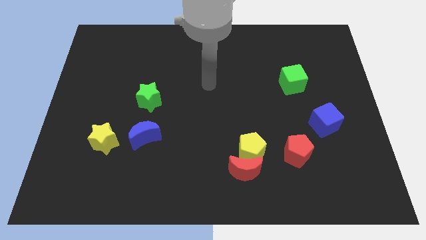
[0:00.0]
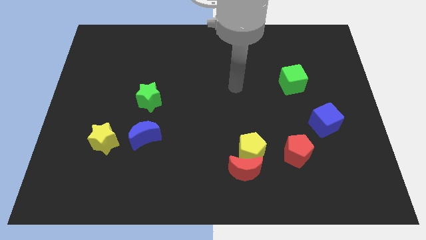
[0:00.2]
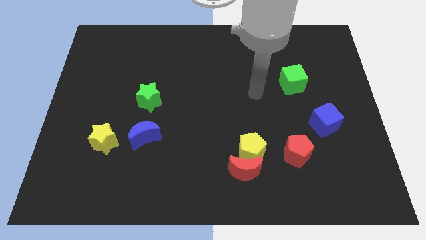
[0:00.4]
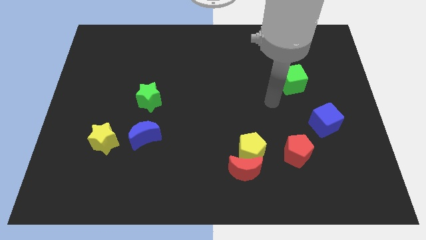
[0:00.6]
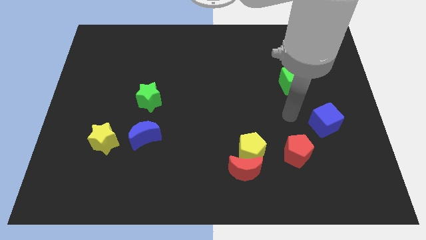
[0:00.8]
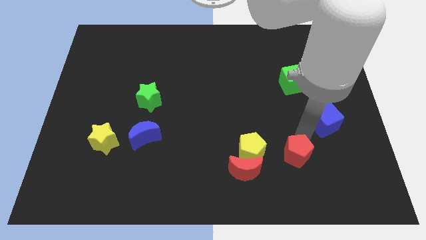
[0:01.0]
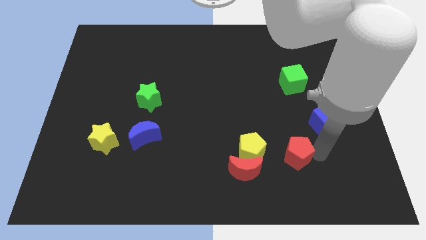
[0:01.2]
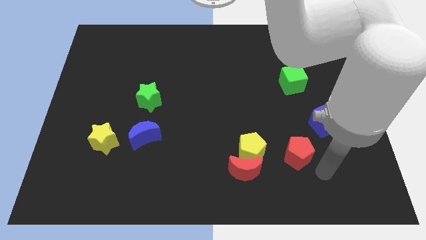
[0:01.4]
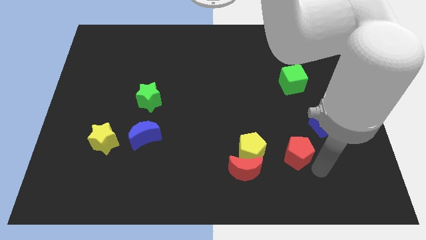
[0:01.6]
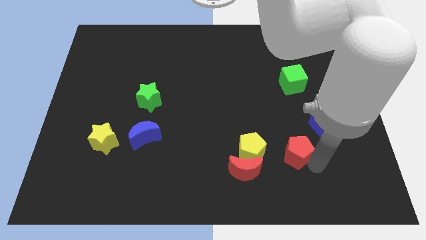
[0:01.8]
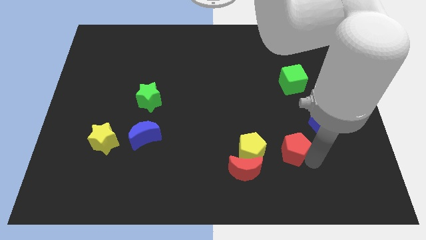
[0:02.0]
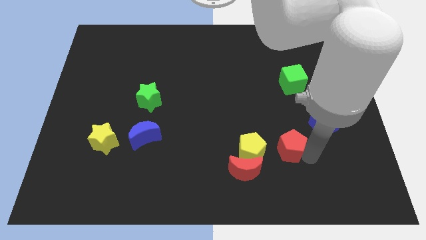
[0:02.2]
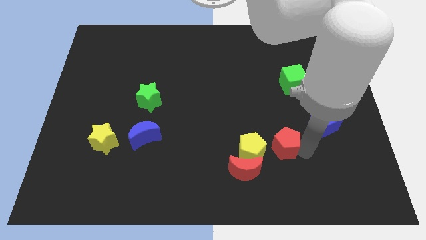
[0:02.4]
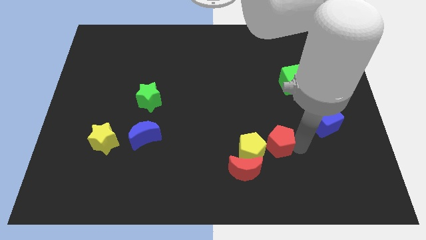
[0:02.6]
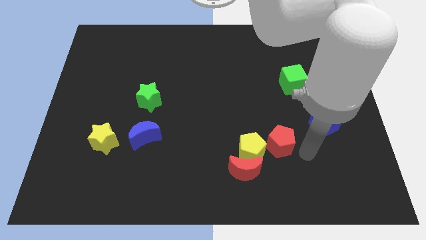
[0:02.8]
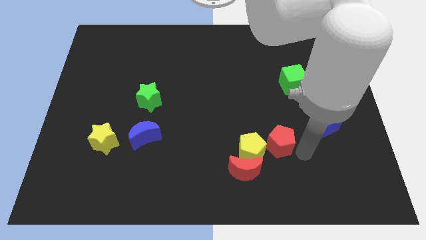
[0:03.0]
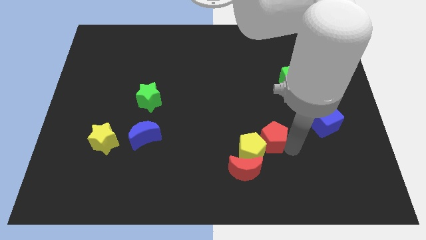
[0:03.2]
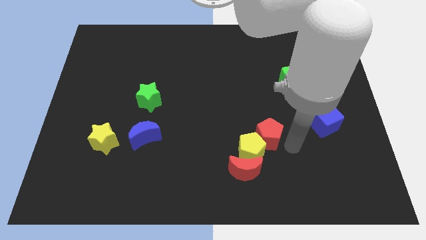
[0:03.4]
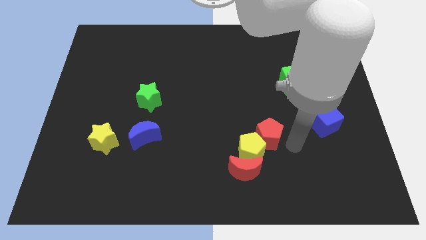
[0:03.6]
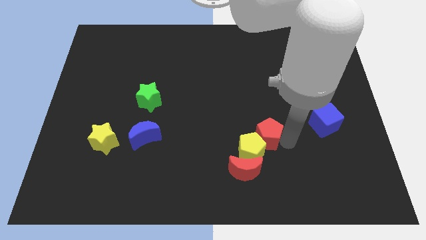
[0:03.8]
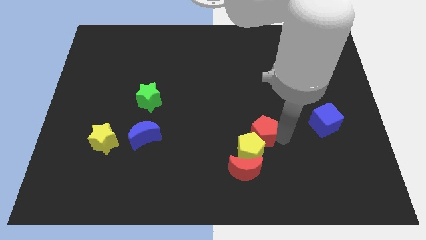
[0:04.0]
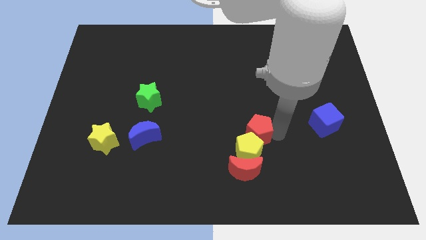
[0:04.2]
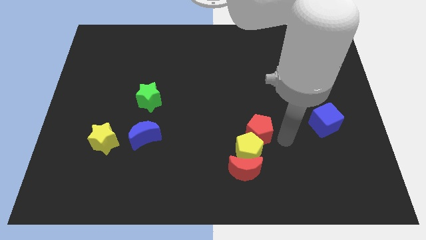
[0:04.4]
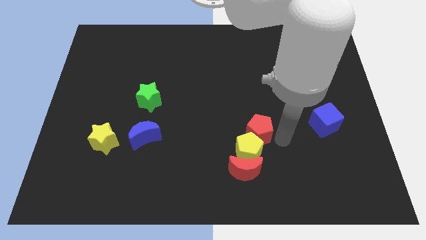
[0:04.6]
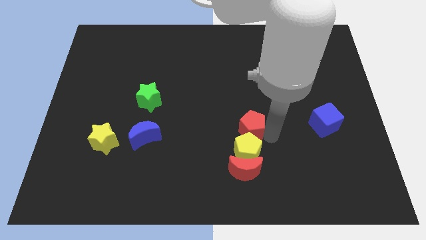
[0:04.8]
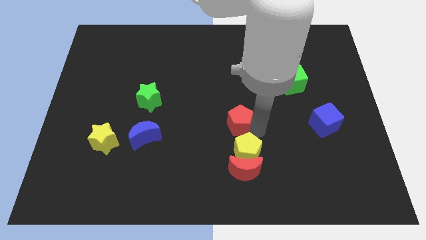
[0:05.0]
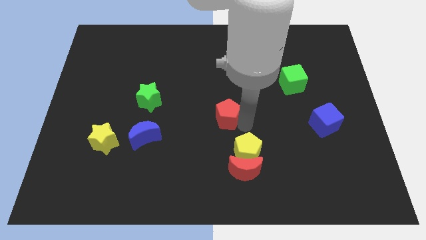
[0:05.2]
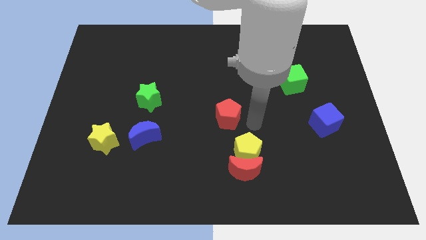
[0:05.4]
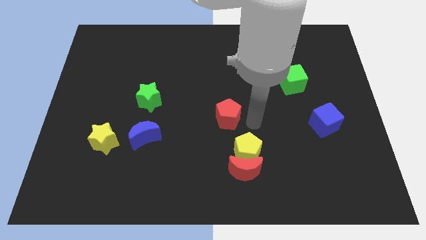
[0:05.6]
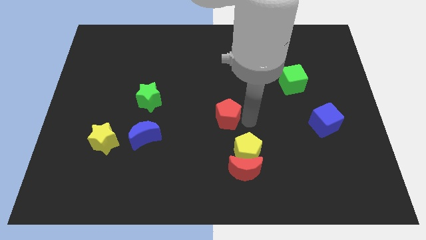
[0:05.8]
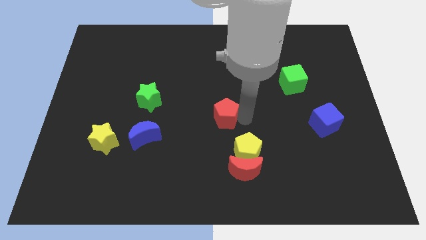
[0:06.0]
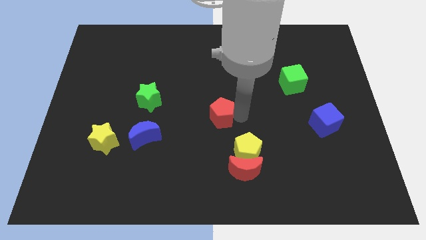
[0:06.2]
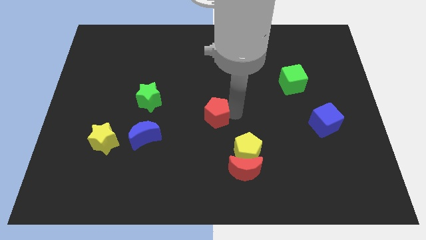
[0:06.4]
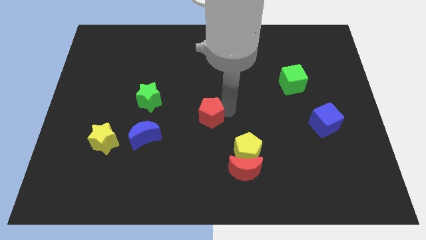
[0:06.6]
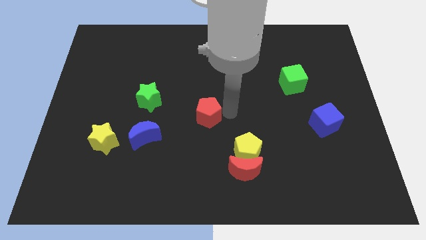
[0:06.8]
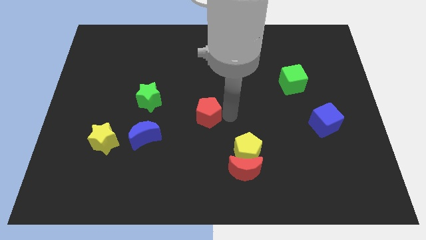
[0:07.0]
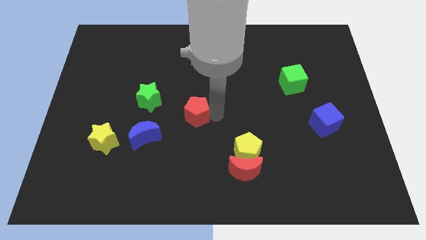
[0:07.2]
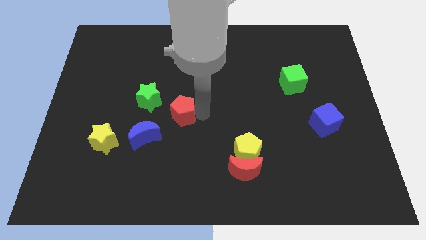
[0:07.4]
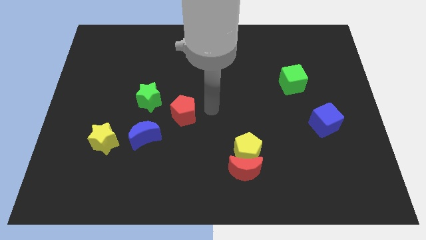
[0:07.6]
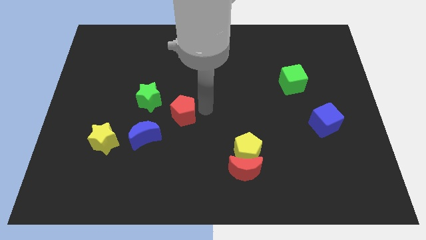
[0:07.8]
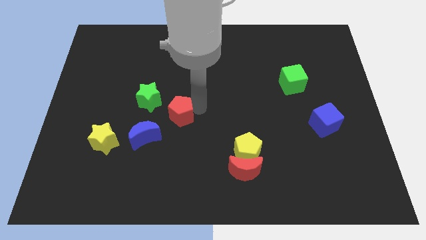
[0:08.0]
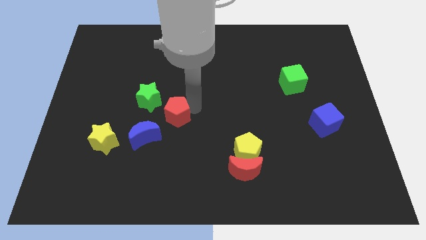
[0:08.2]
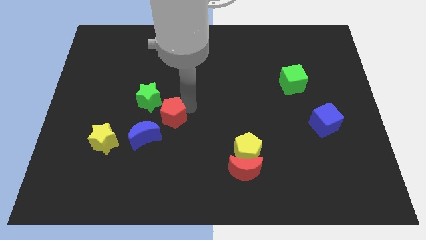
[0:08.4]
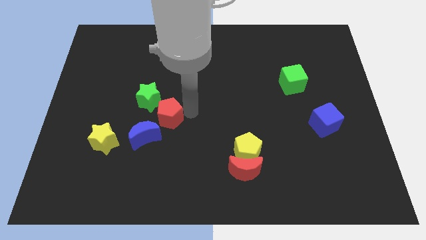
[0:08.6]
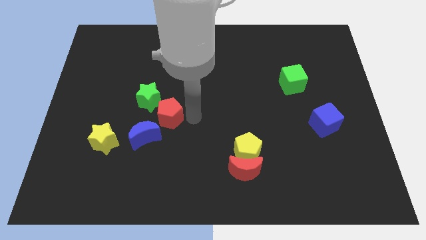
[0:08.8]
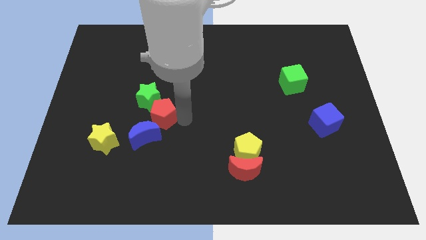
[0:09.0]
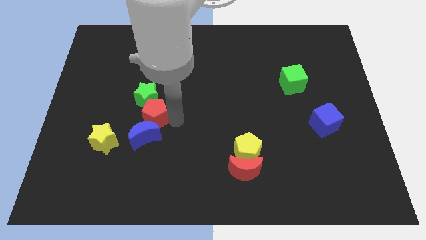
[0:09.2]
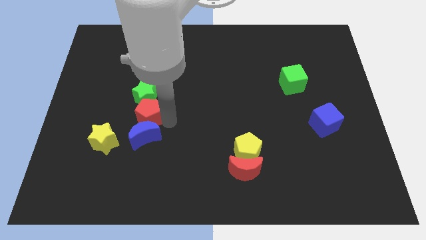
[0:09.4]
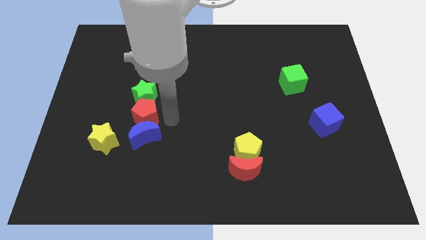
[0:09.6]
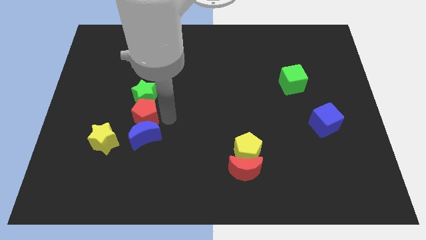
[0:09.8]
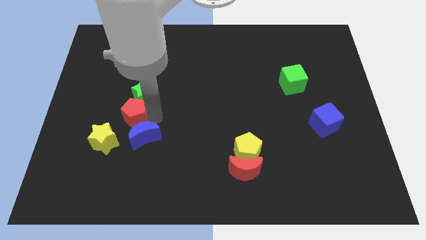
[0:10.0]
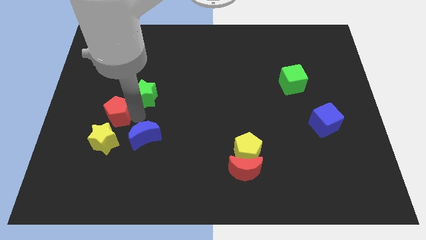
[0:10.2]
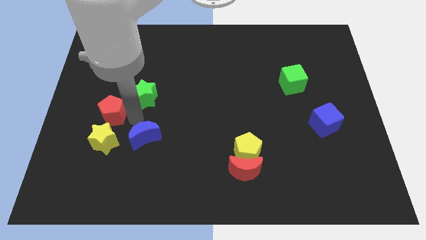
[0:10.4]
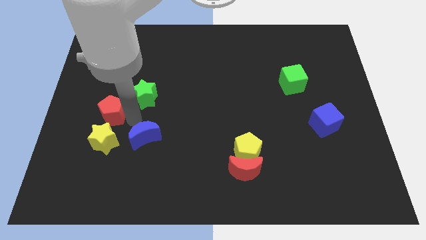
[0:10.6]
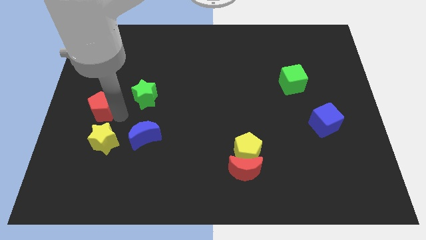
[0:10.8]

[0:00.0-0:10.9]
push the red pentagon to the left side
